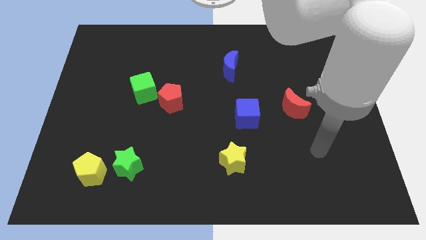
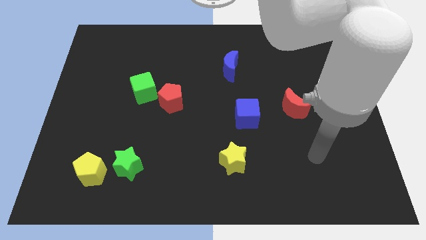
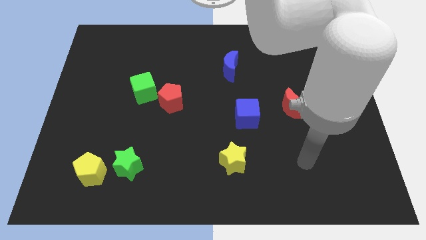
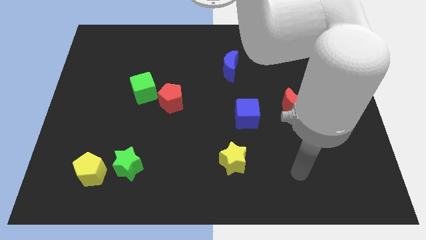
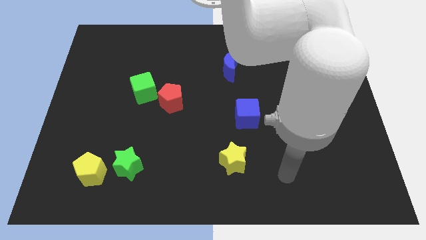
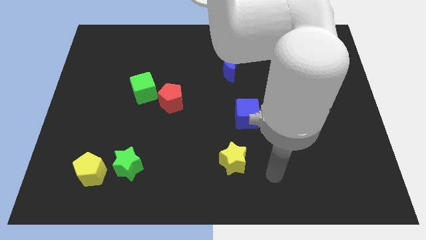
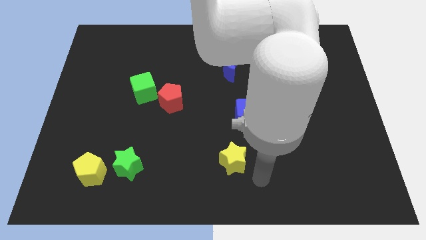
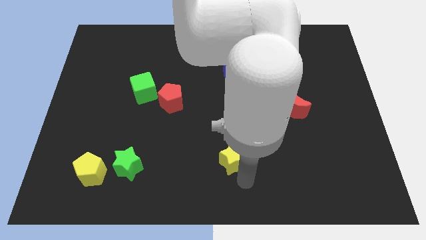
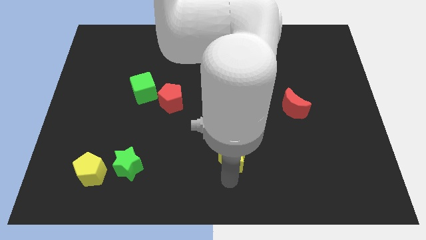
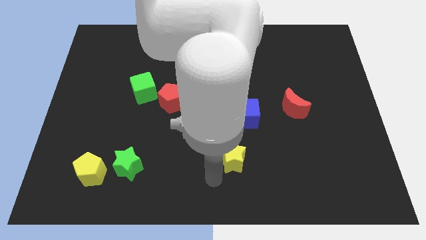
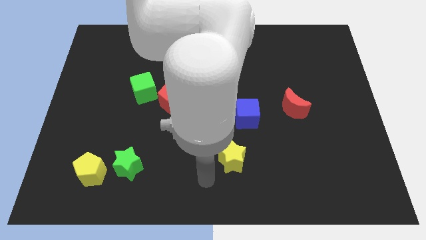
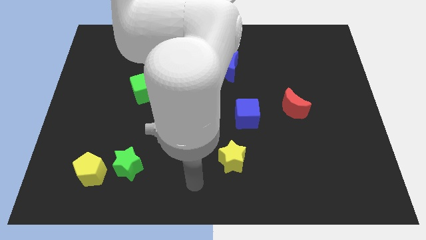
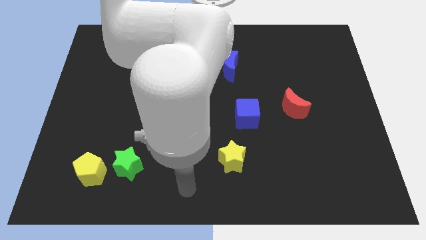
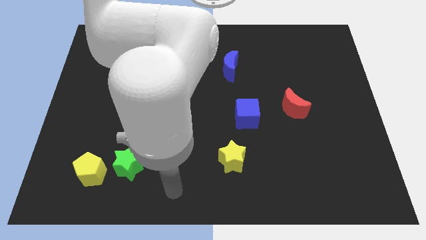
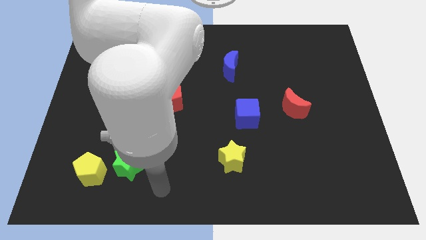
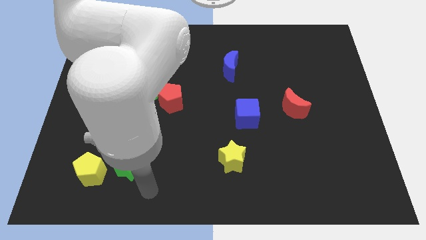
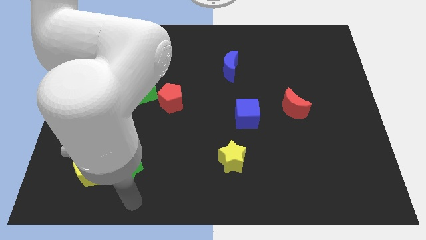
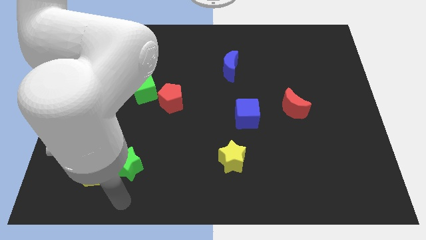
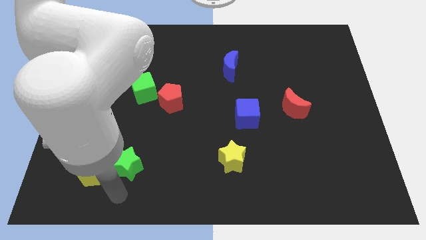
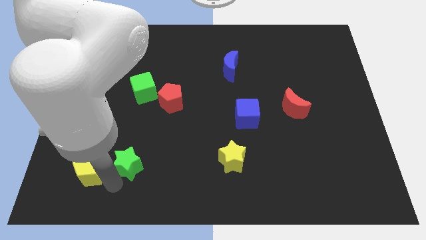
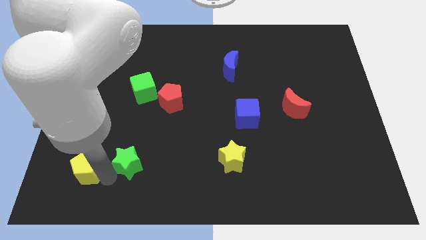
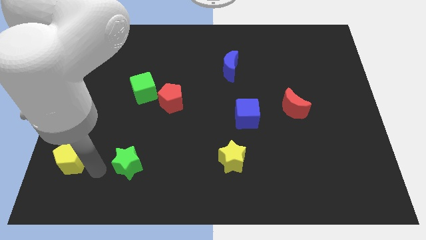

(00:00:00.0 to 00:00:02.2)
separate the green star from the yellow pentagon

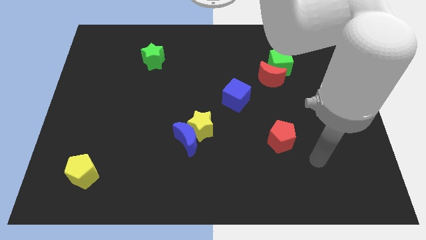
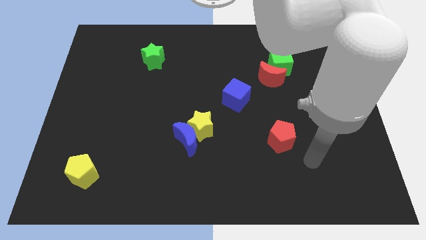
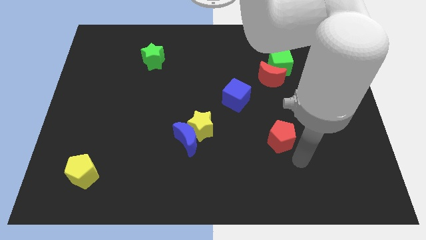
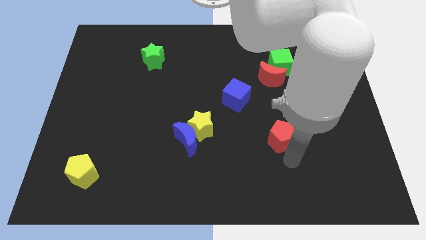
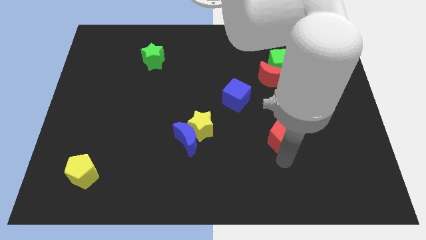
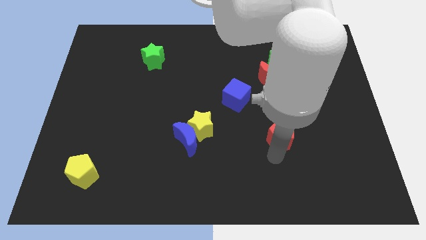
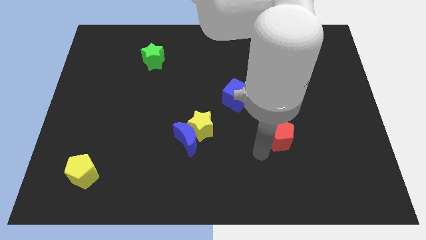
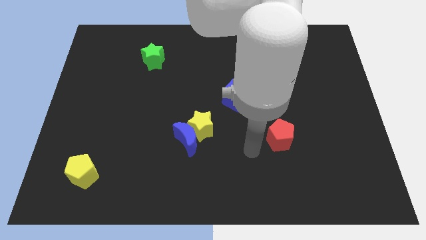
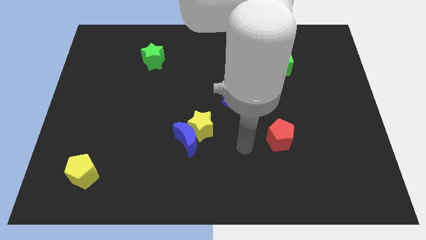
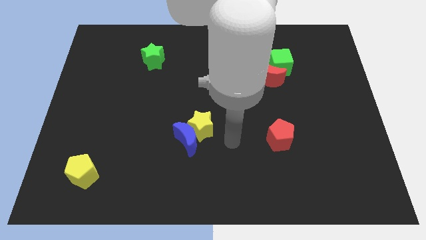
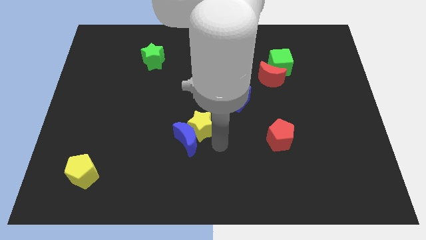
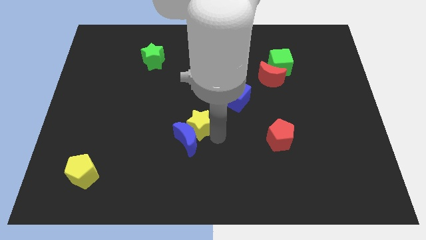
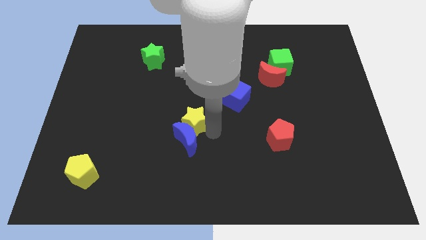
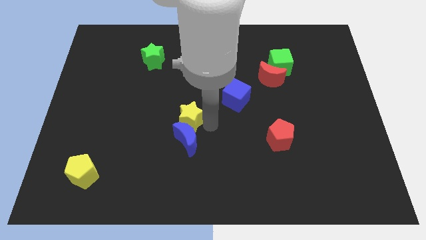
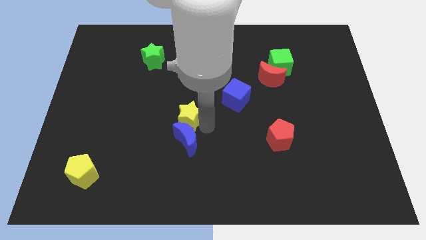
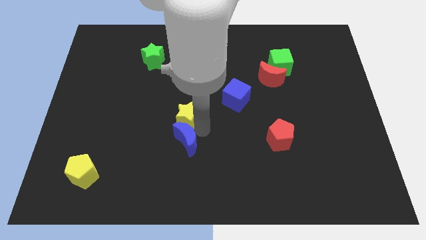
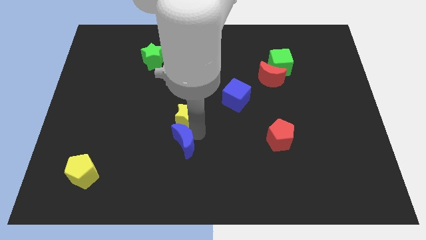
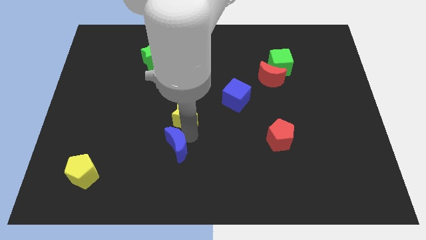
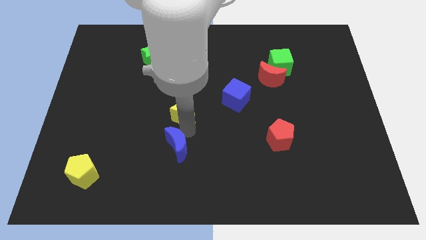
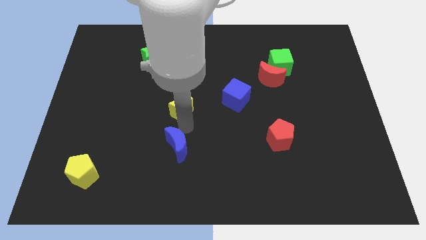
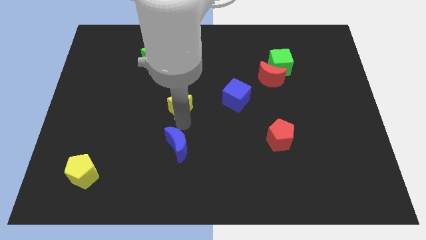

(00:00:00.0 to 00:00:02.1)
separate the blue moon from the yellow star

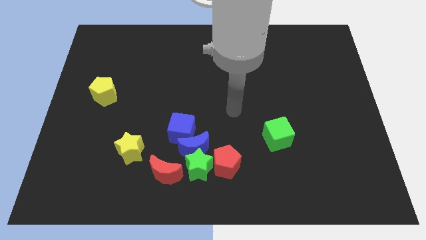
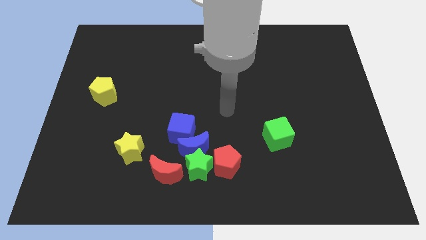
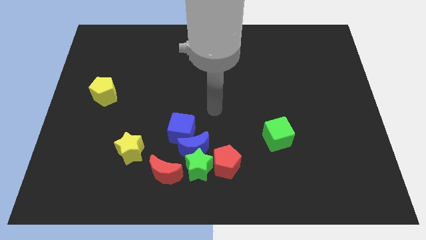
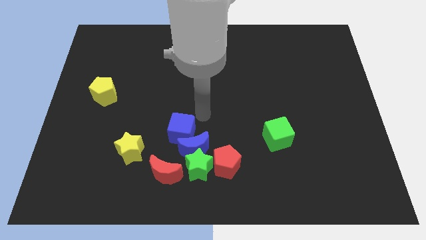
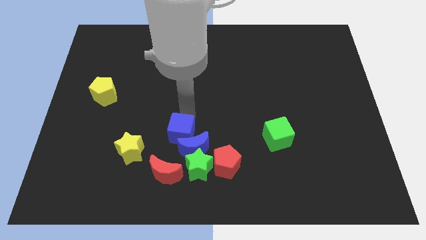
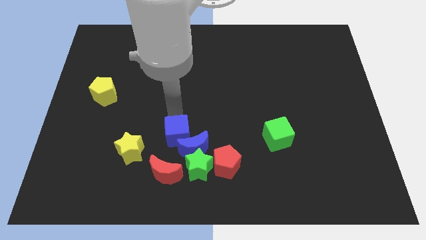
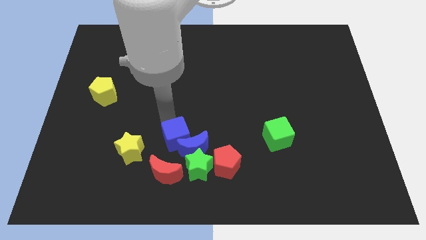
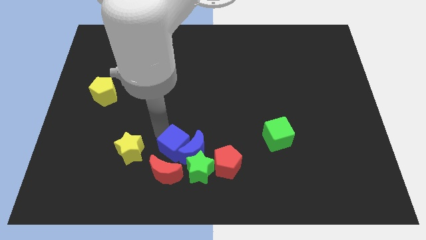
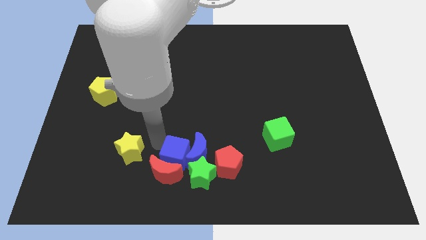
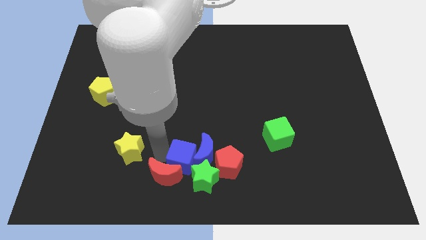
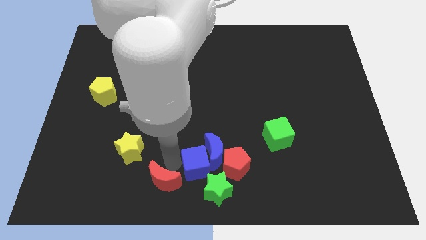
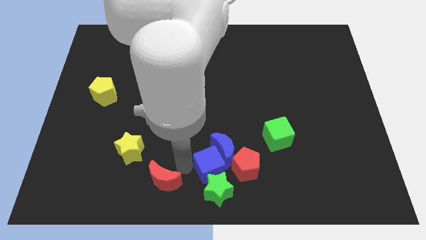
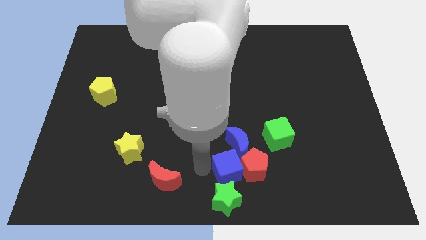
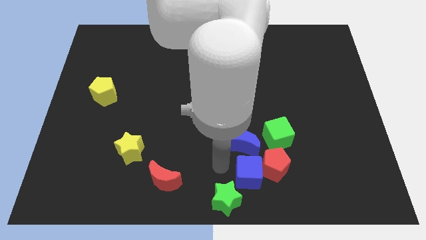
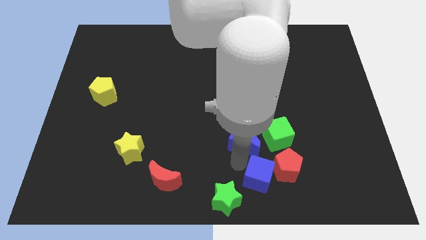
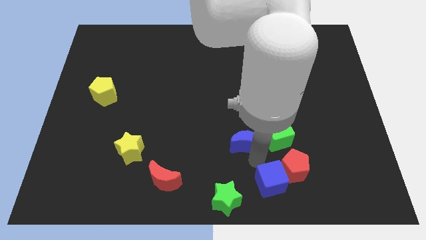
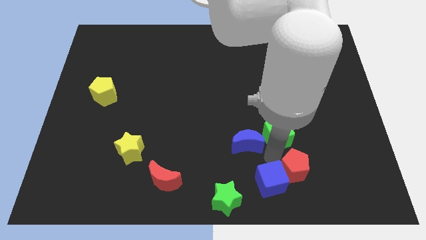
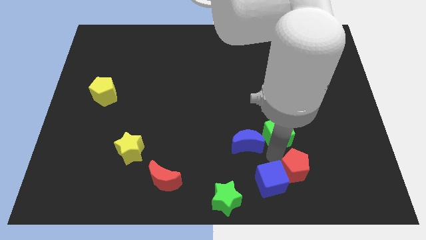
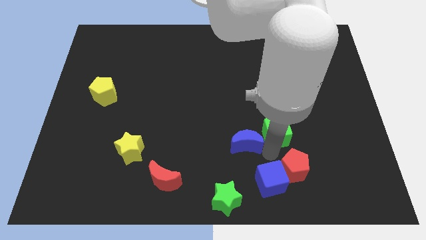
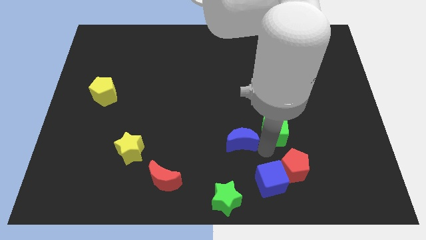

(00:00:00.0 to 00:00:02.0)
move the blue moon away from the group of blocks

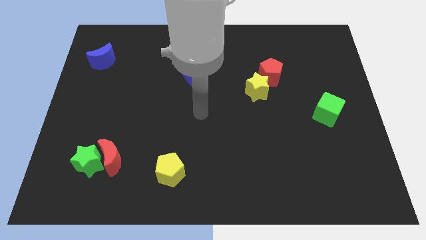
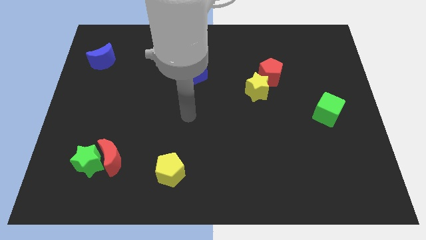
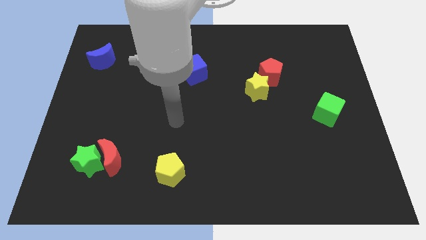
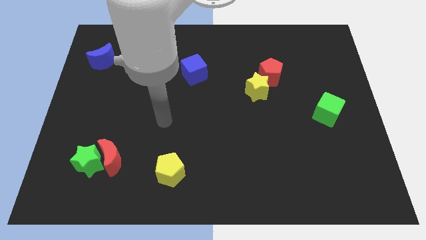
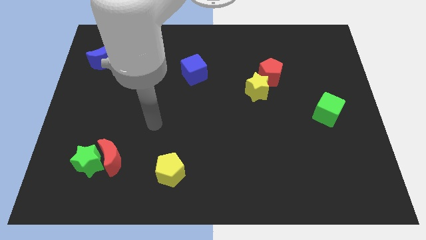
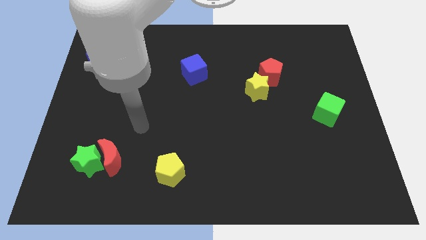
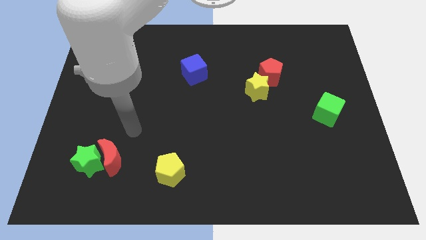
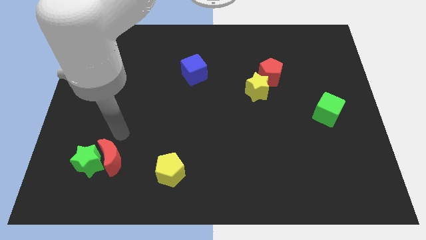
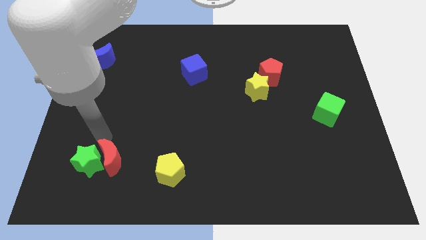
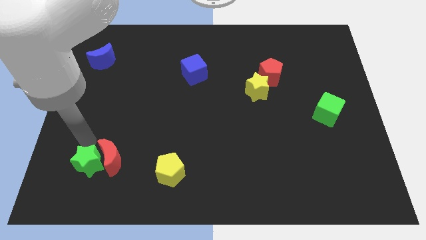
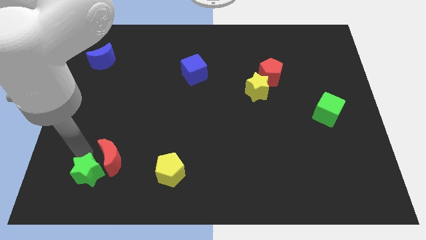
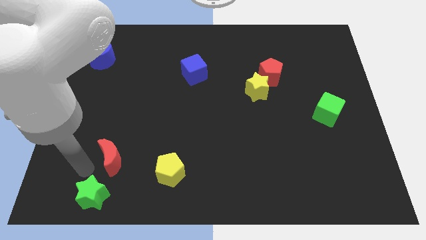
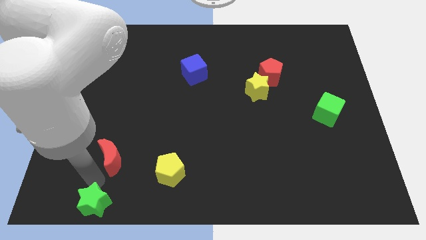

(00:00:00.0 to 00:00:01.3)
pull the red moon apart from the green star

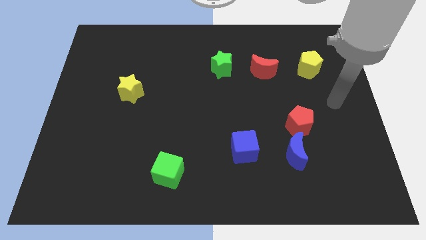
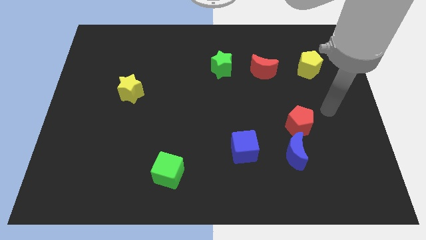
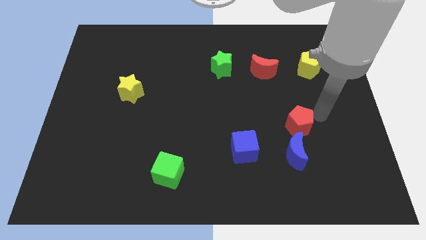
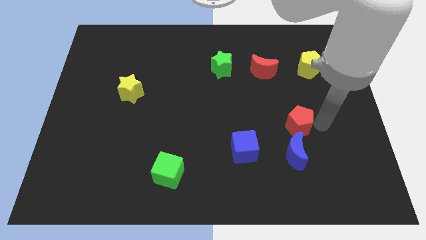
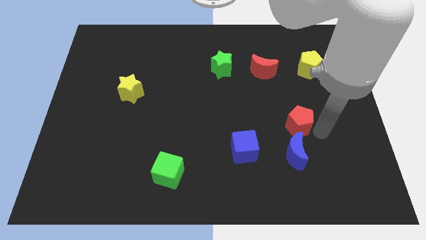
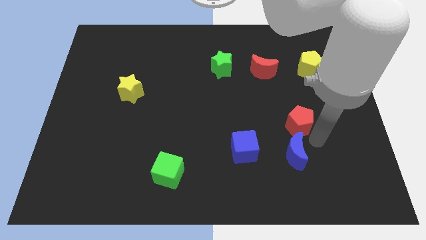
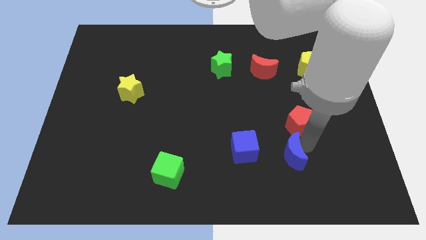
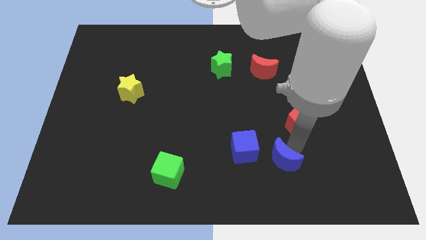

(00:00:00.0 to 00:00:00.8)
pull the red pentagon apart from the blue moon

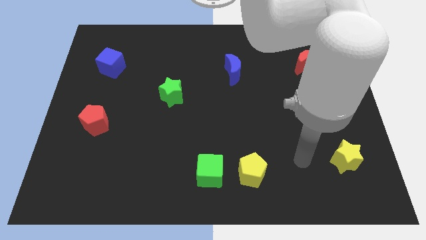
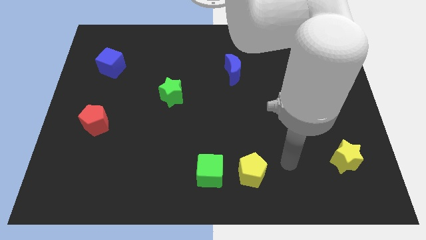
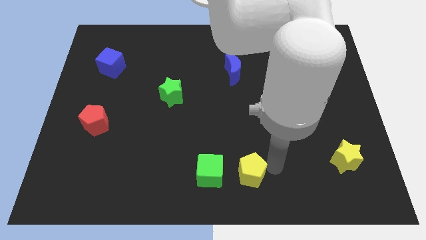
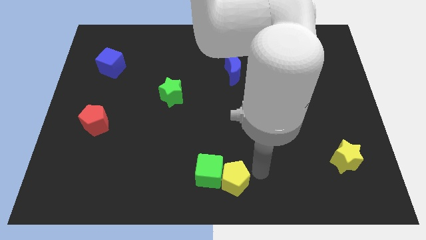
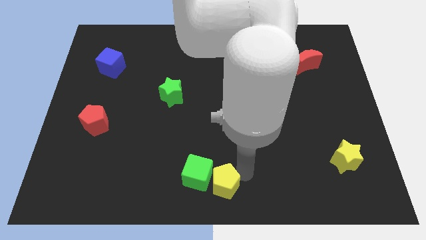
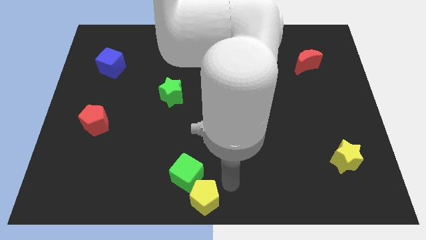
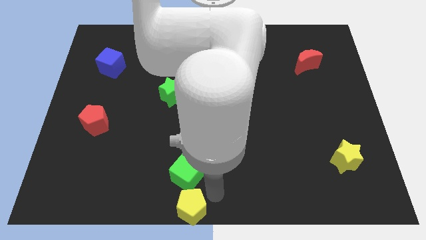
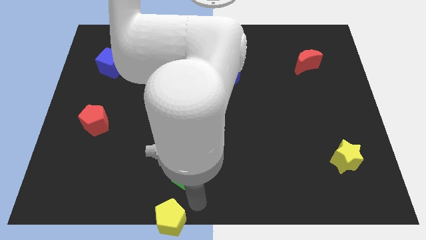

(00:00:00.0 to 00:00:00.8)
move the green cube away from the yellow pentagon

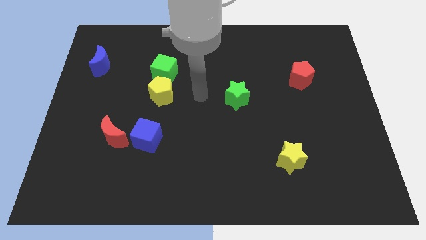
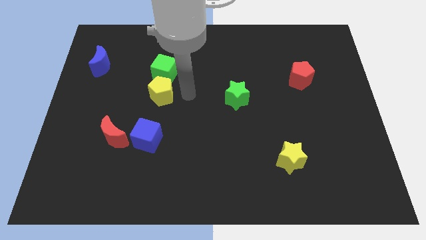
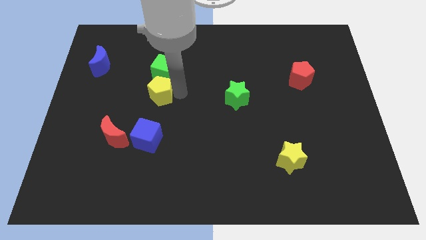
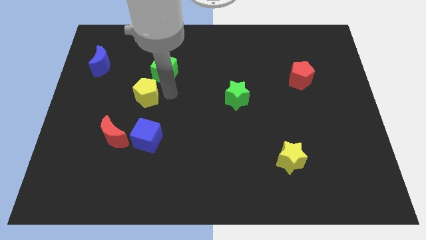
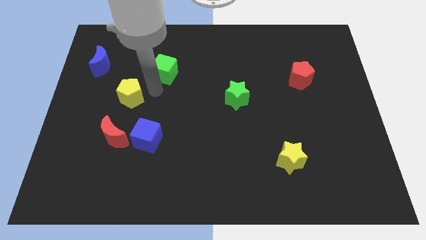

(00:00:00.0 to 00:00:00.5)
separate the green cube from the yellow pentagon
